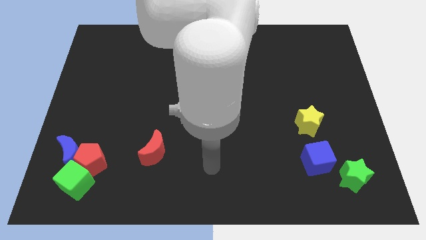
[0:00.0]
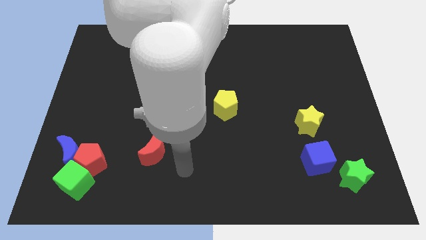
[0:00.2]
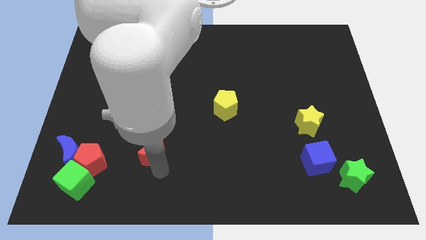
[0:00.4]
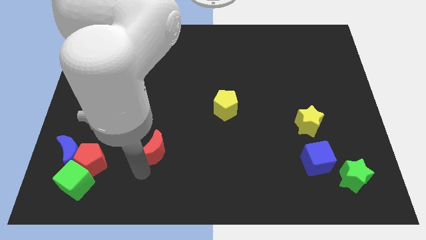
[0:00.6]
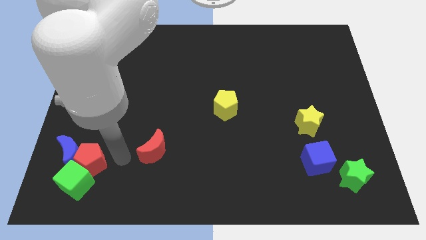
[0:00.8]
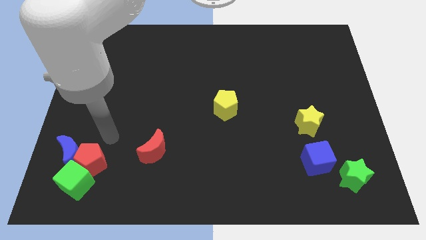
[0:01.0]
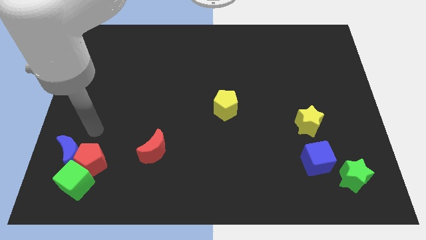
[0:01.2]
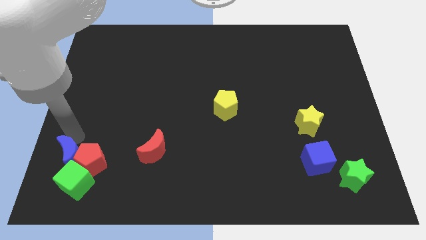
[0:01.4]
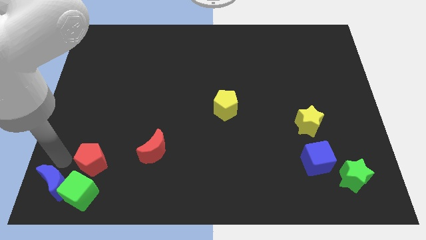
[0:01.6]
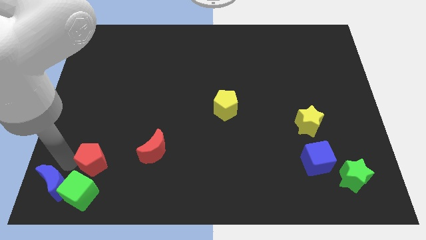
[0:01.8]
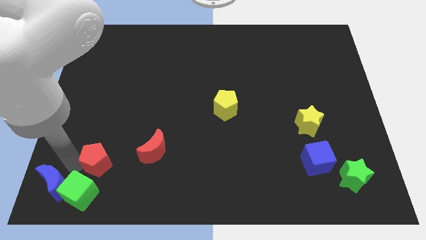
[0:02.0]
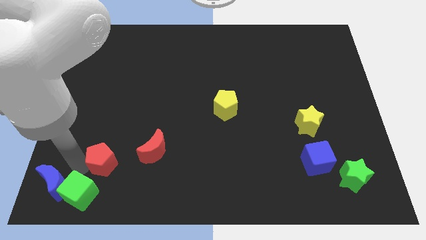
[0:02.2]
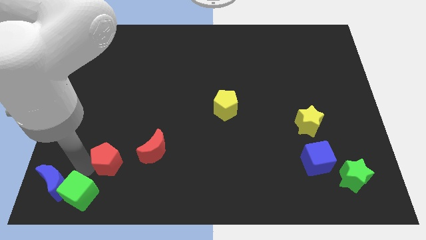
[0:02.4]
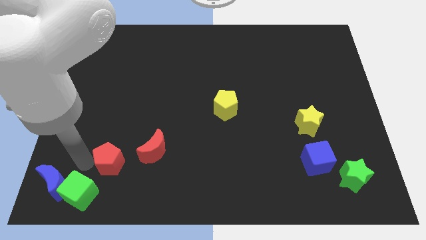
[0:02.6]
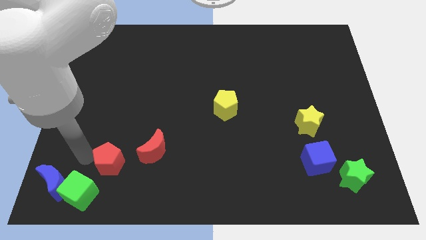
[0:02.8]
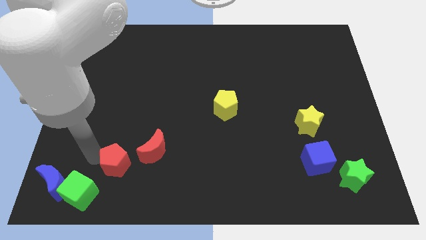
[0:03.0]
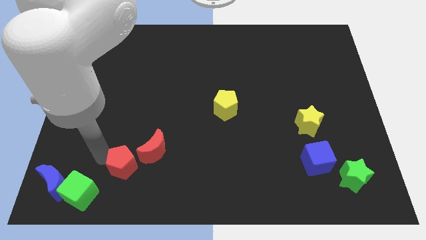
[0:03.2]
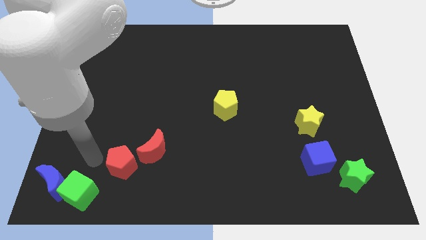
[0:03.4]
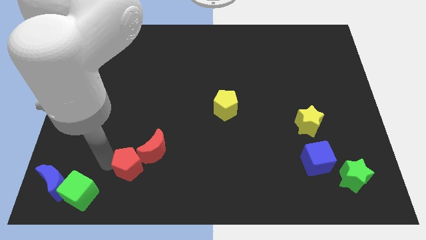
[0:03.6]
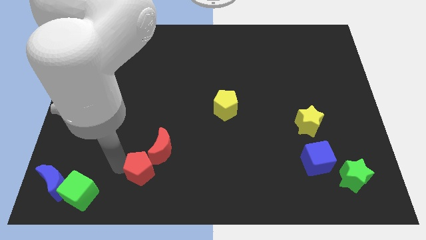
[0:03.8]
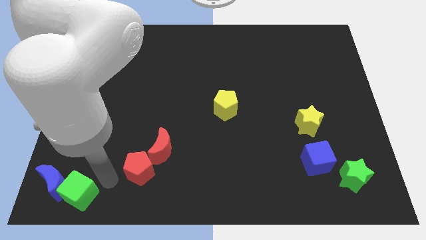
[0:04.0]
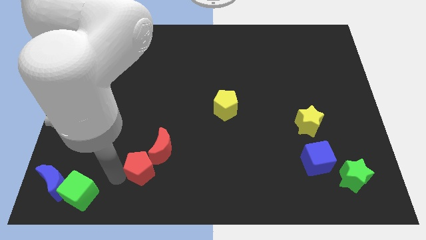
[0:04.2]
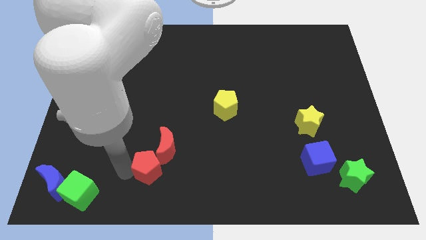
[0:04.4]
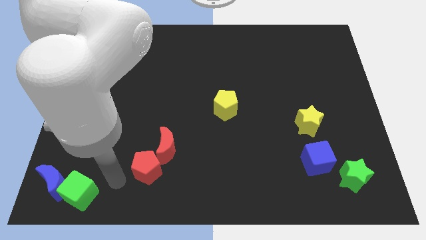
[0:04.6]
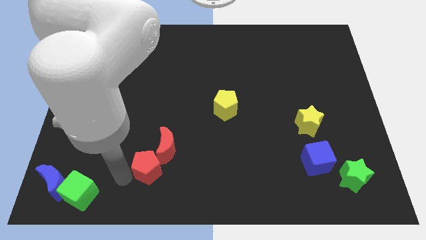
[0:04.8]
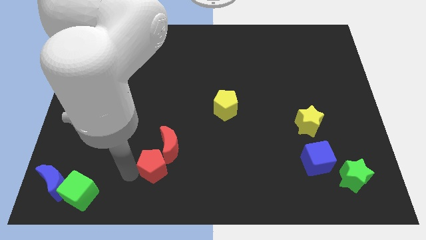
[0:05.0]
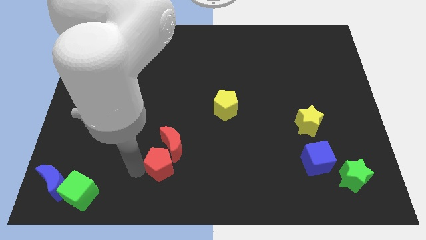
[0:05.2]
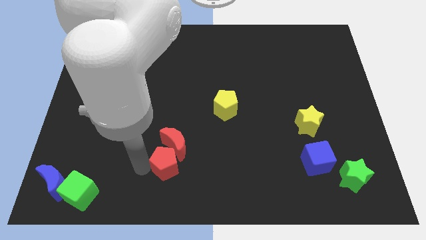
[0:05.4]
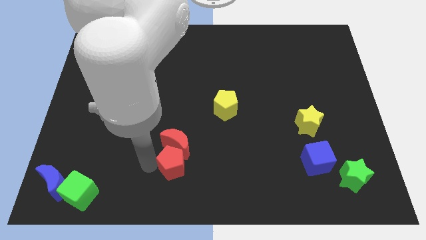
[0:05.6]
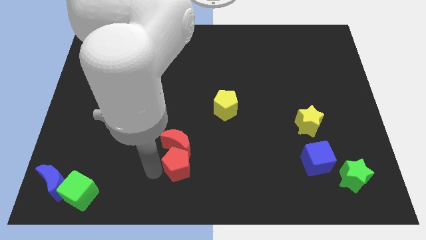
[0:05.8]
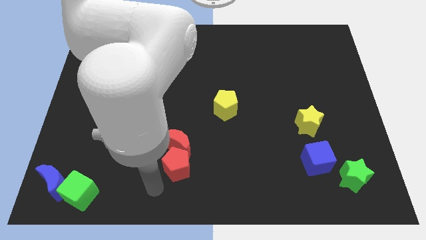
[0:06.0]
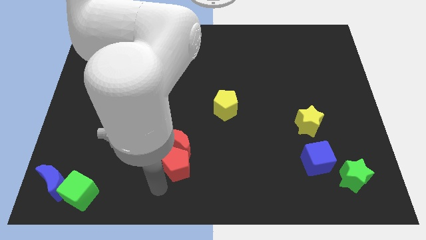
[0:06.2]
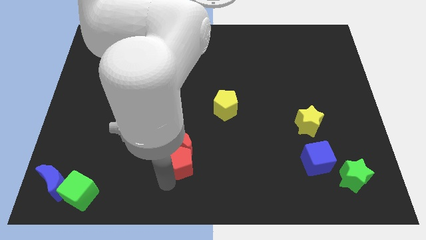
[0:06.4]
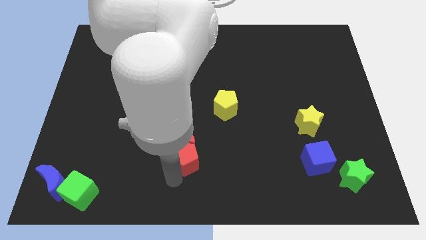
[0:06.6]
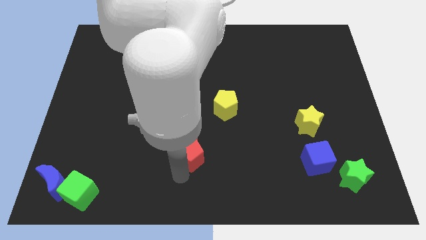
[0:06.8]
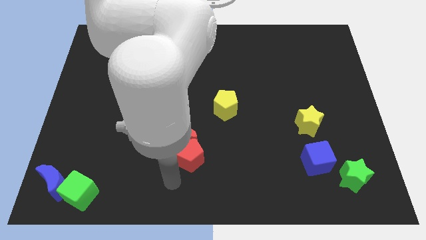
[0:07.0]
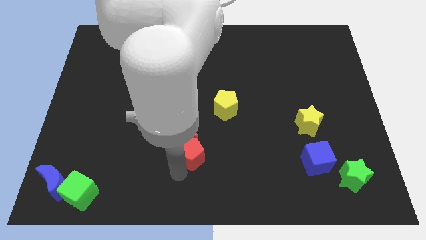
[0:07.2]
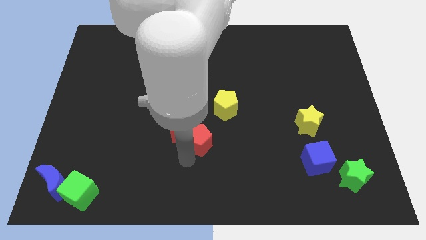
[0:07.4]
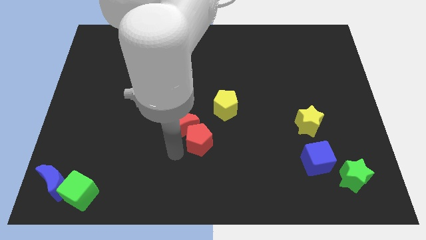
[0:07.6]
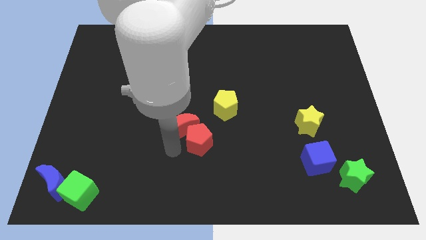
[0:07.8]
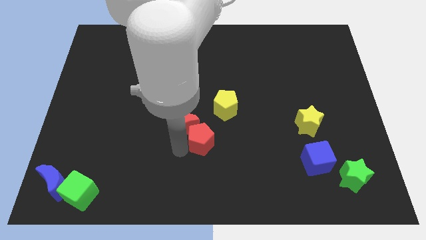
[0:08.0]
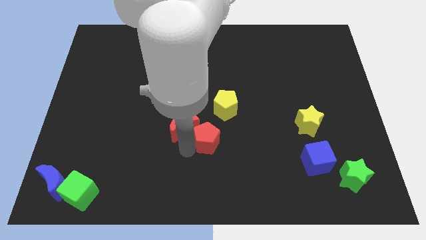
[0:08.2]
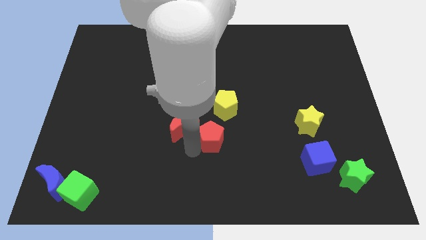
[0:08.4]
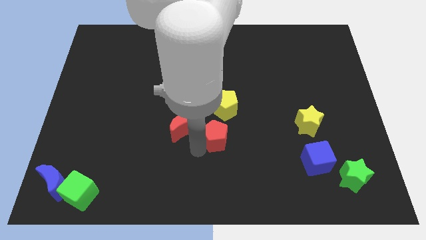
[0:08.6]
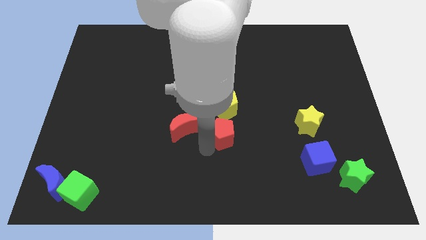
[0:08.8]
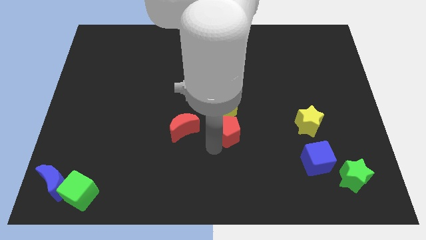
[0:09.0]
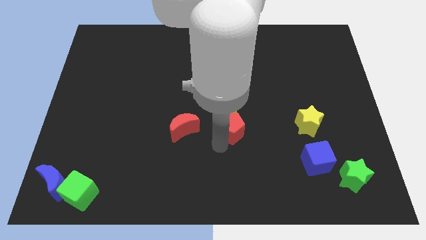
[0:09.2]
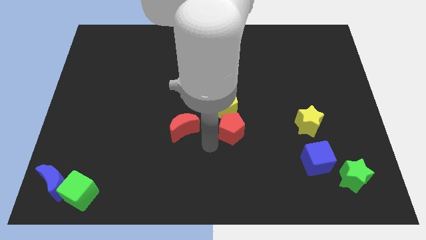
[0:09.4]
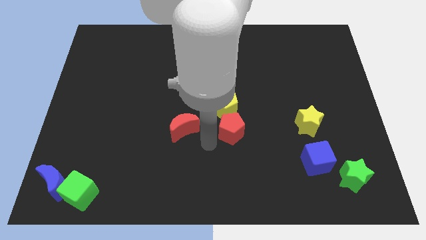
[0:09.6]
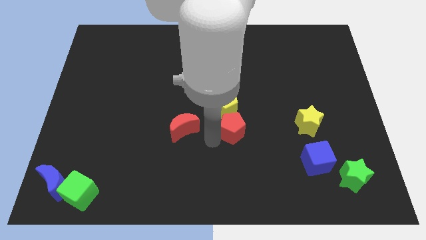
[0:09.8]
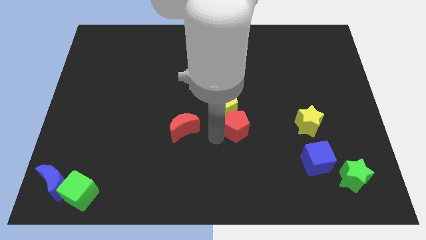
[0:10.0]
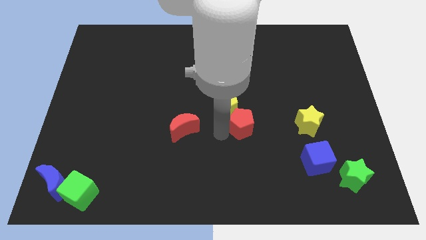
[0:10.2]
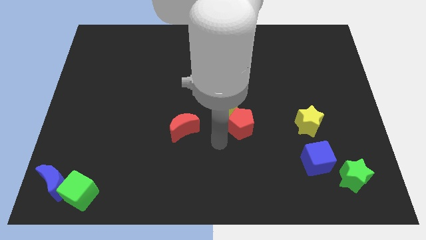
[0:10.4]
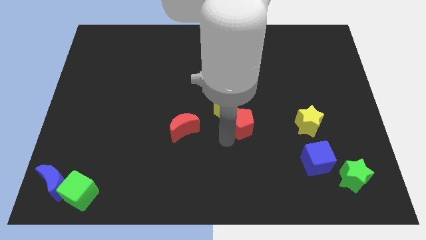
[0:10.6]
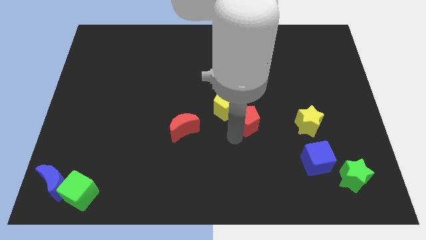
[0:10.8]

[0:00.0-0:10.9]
move the red pentagon right of the yellow pentagon

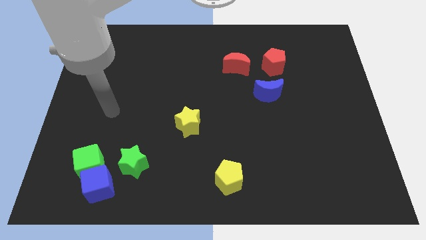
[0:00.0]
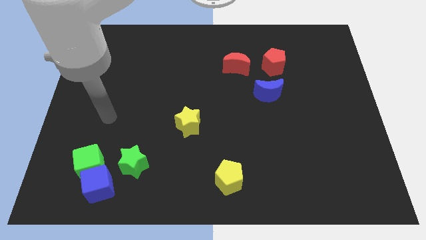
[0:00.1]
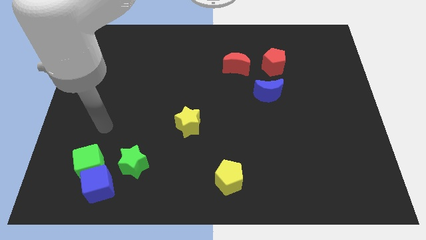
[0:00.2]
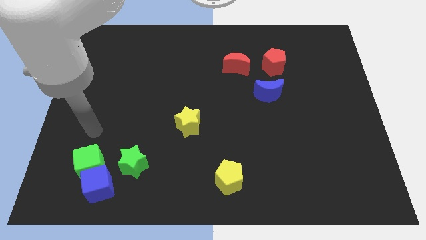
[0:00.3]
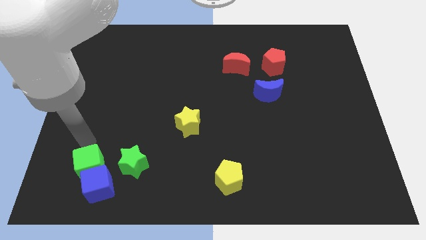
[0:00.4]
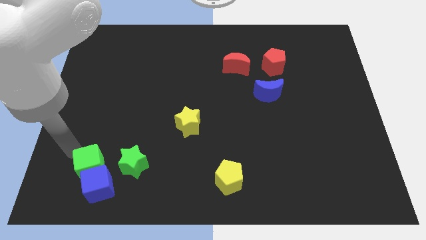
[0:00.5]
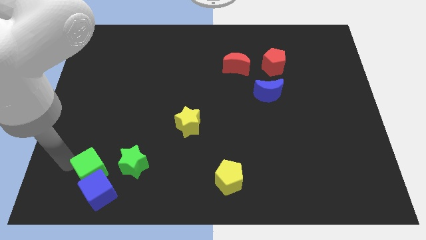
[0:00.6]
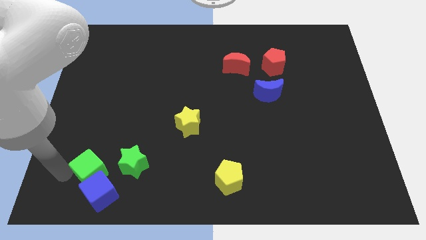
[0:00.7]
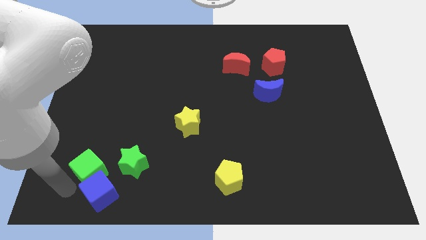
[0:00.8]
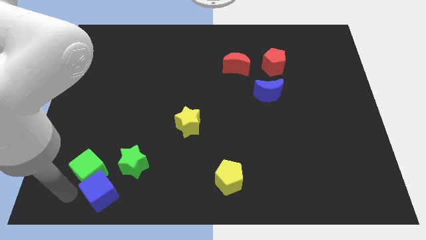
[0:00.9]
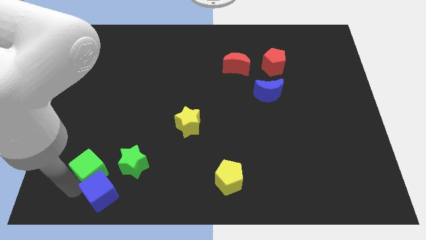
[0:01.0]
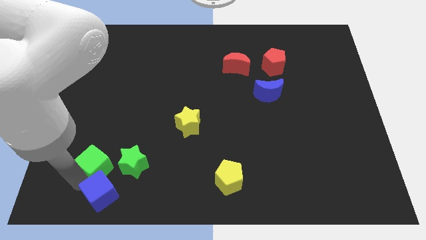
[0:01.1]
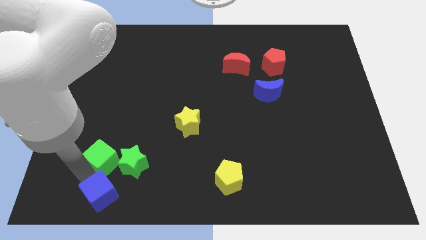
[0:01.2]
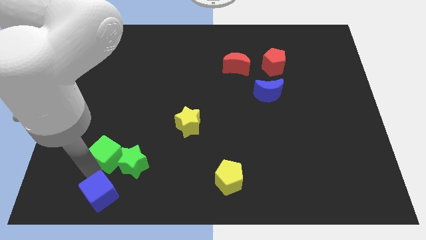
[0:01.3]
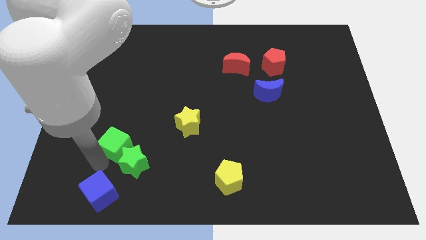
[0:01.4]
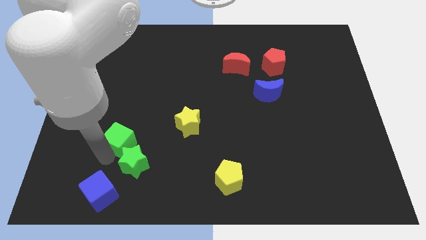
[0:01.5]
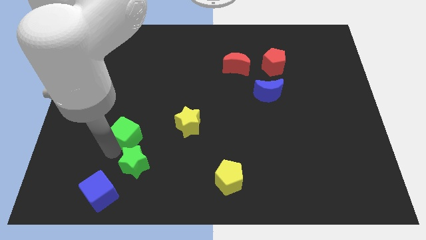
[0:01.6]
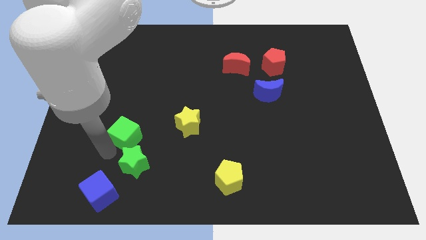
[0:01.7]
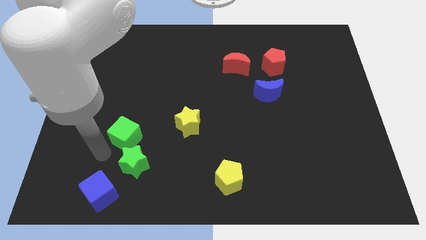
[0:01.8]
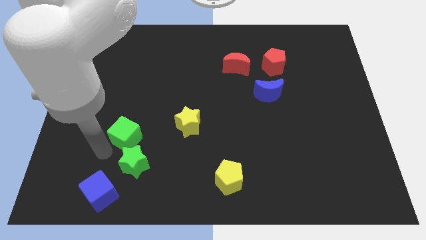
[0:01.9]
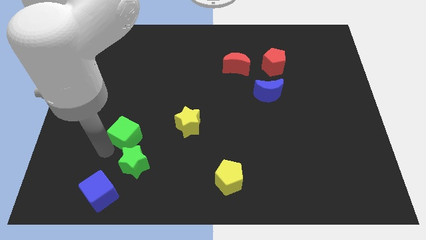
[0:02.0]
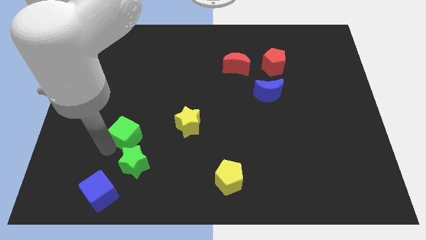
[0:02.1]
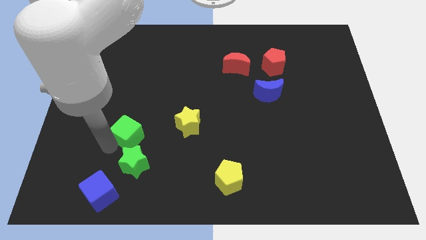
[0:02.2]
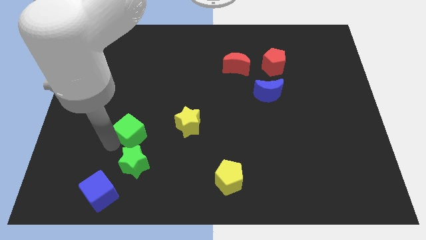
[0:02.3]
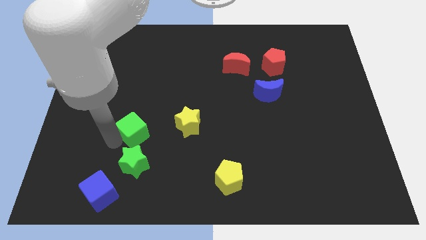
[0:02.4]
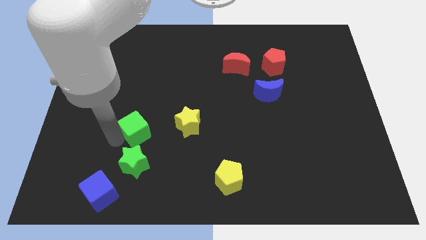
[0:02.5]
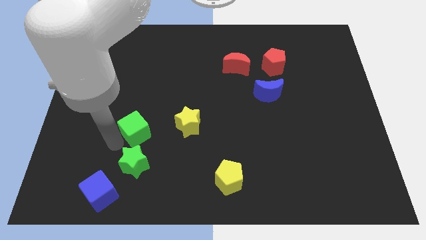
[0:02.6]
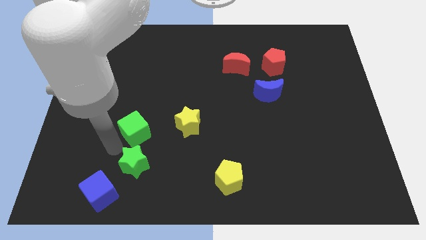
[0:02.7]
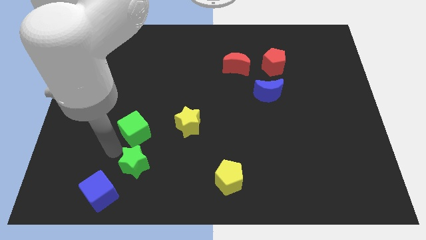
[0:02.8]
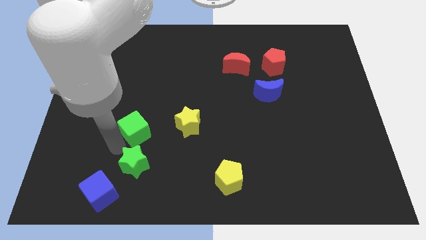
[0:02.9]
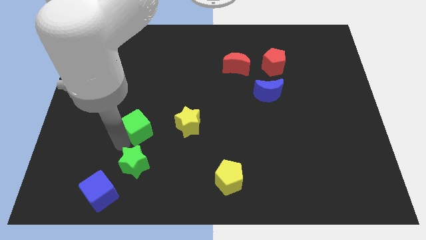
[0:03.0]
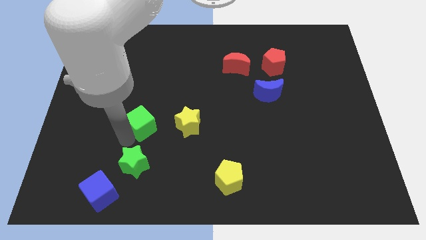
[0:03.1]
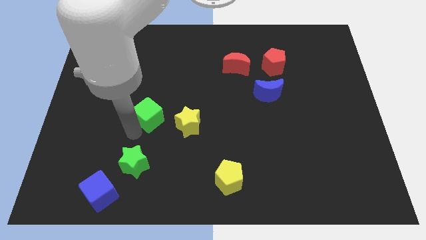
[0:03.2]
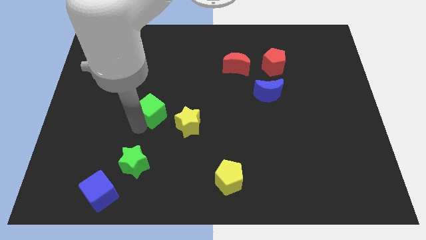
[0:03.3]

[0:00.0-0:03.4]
push the green cube to the top left side of the yellow star
